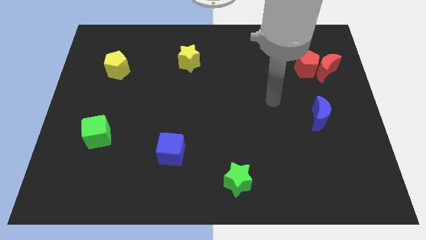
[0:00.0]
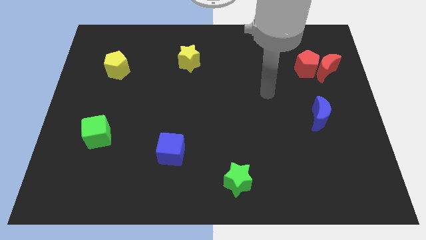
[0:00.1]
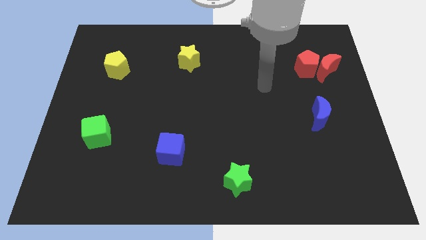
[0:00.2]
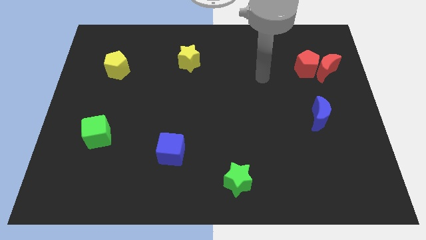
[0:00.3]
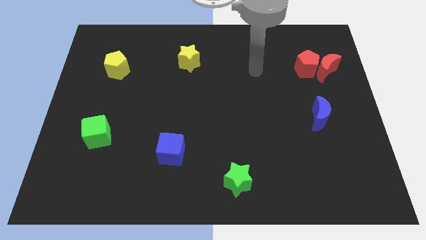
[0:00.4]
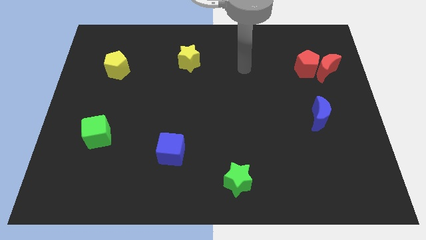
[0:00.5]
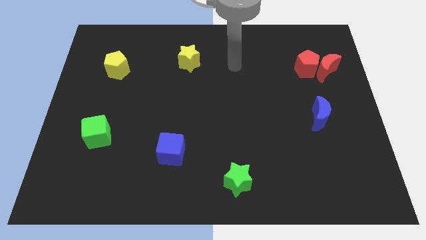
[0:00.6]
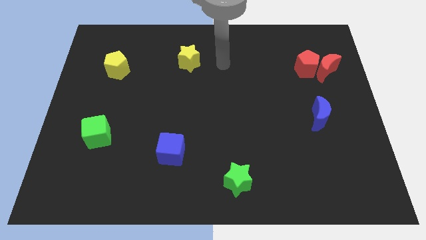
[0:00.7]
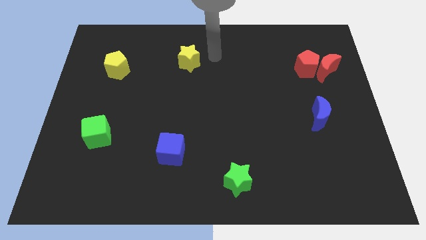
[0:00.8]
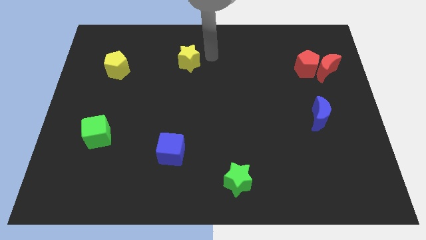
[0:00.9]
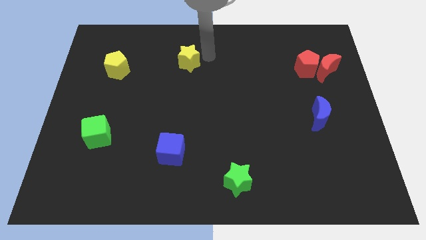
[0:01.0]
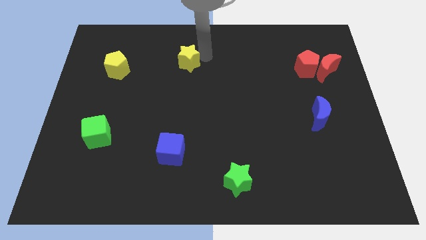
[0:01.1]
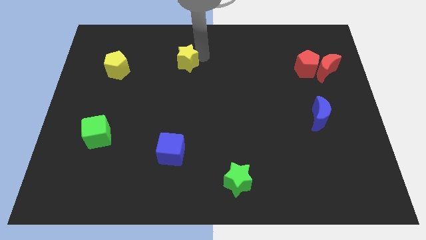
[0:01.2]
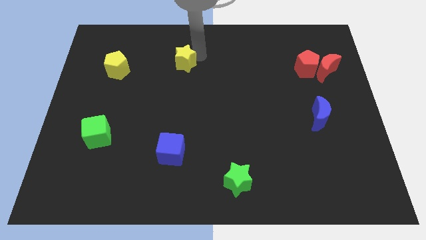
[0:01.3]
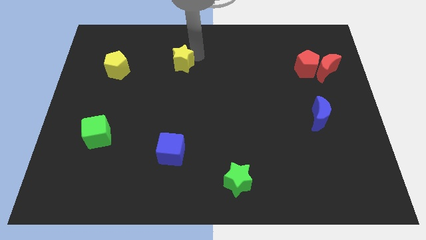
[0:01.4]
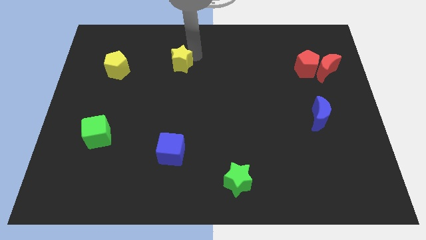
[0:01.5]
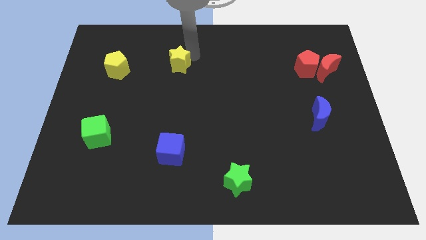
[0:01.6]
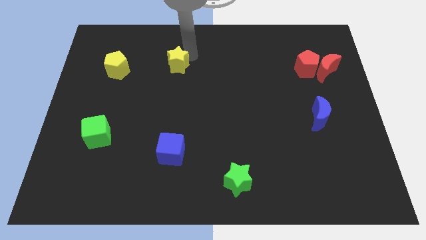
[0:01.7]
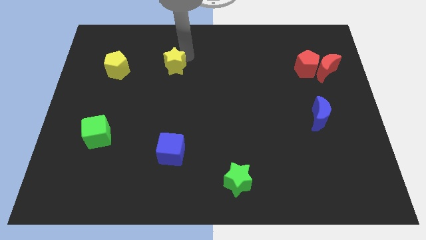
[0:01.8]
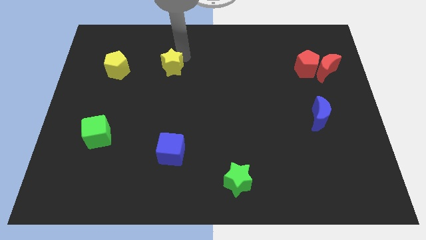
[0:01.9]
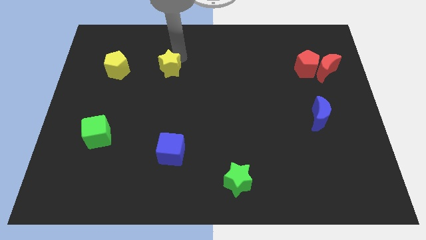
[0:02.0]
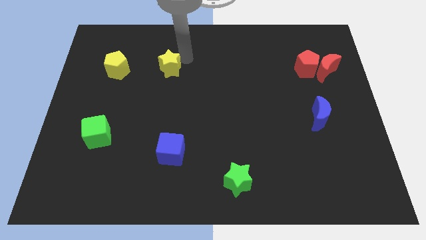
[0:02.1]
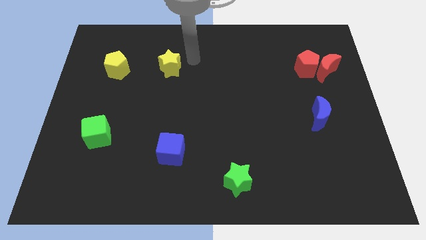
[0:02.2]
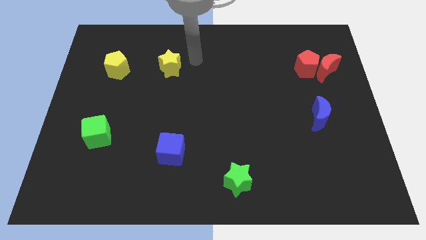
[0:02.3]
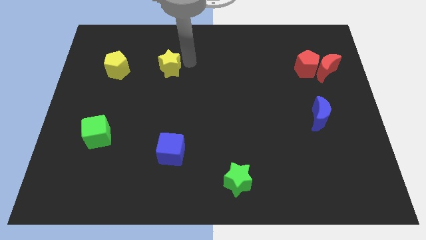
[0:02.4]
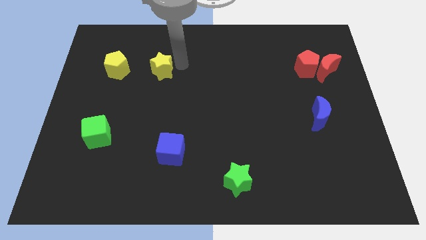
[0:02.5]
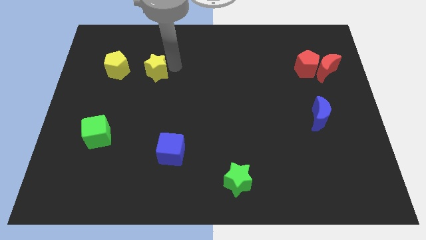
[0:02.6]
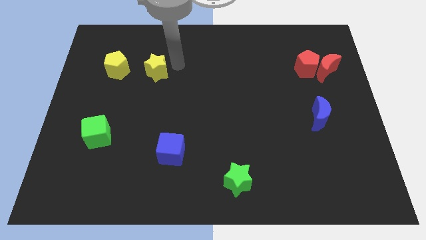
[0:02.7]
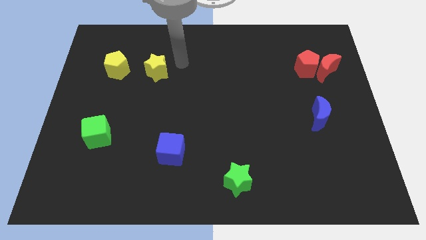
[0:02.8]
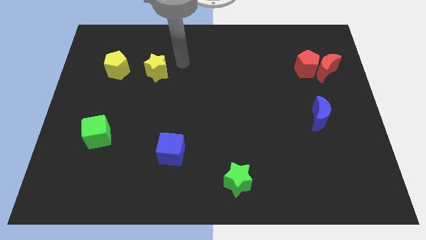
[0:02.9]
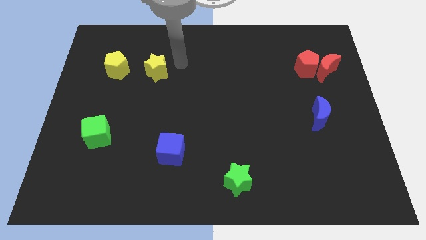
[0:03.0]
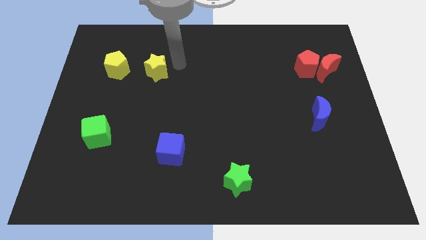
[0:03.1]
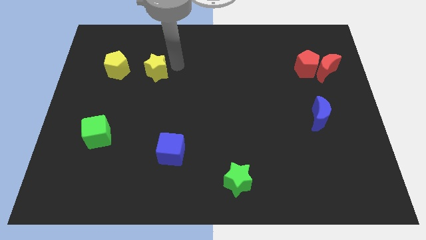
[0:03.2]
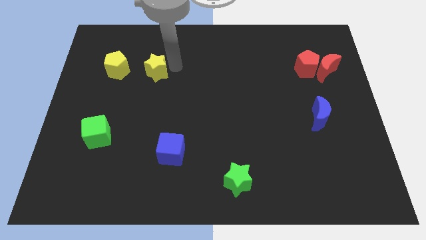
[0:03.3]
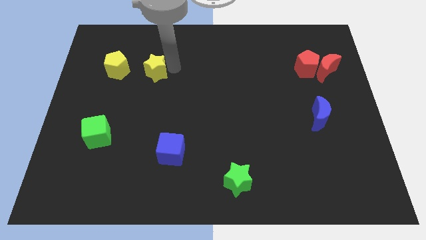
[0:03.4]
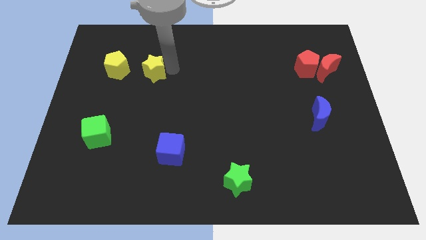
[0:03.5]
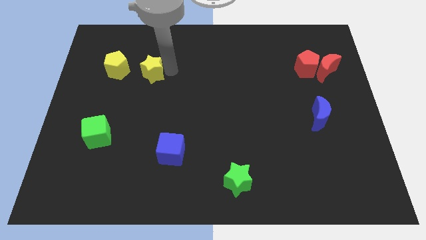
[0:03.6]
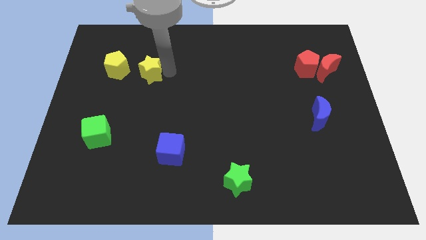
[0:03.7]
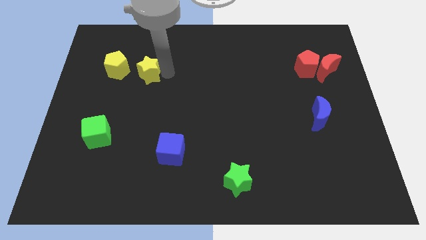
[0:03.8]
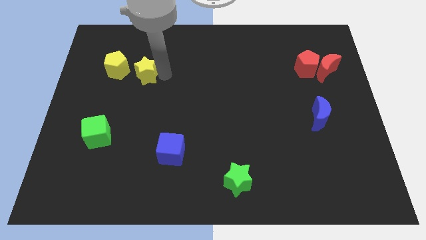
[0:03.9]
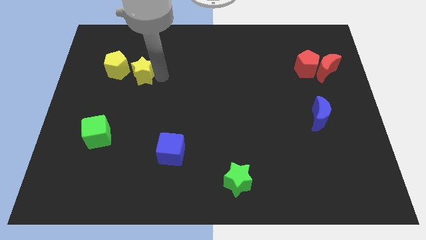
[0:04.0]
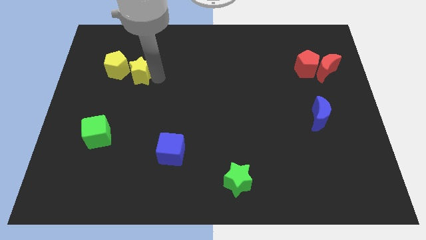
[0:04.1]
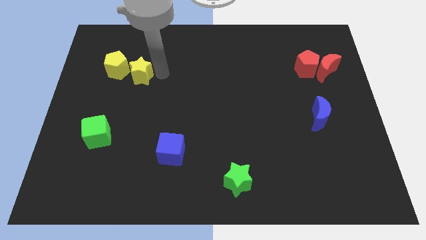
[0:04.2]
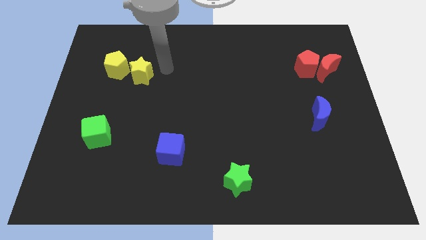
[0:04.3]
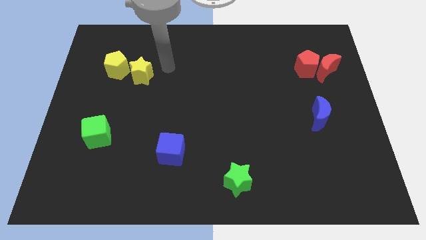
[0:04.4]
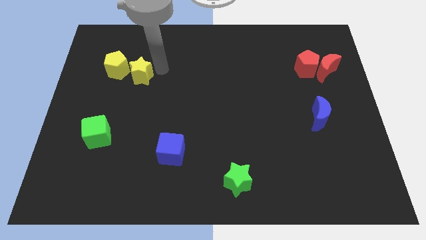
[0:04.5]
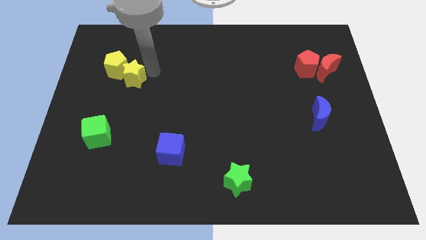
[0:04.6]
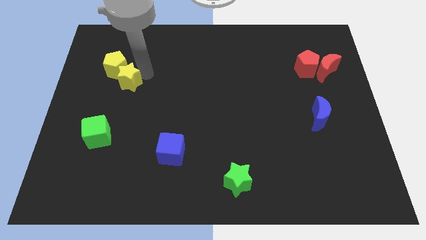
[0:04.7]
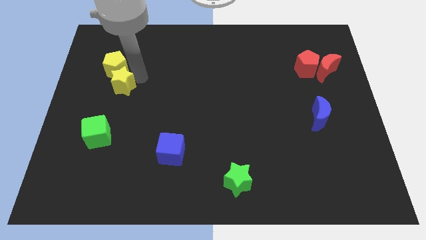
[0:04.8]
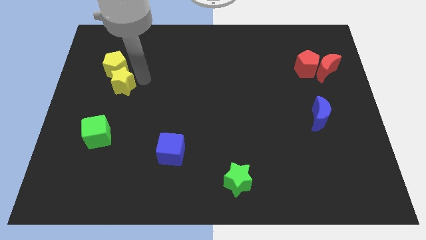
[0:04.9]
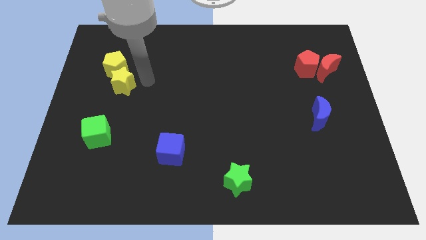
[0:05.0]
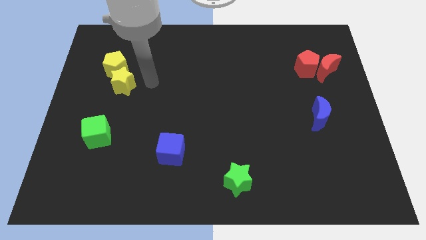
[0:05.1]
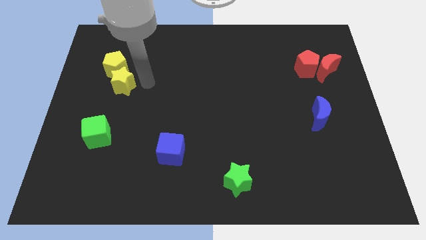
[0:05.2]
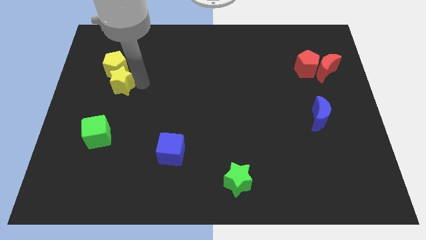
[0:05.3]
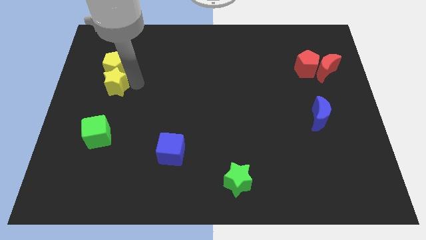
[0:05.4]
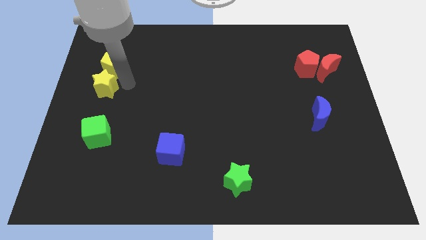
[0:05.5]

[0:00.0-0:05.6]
slide the yellow star to the left side of the board
